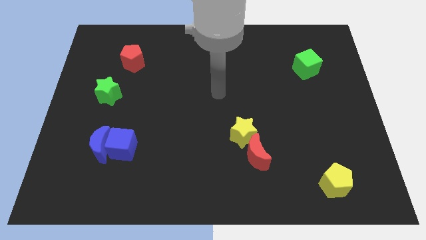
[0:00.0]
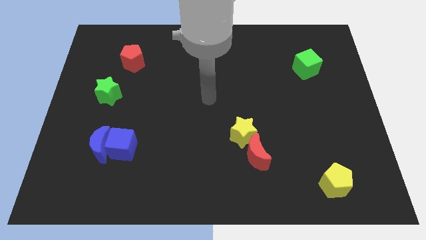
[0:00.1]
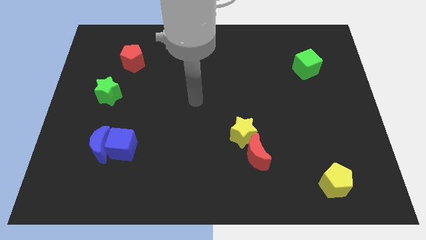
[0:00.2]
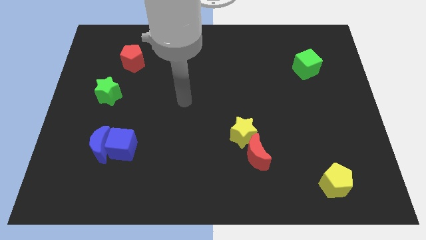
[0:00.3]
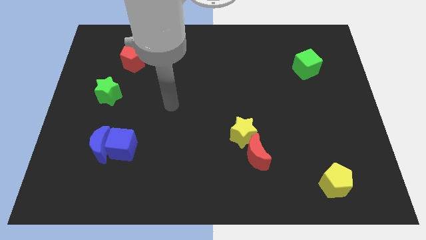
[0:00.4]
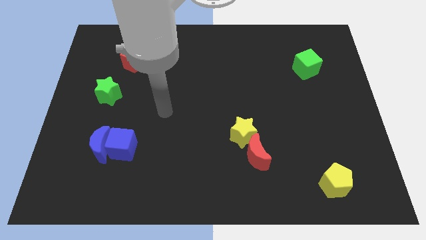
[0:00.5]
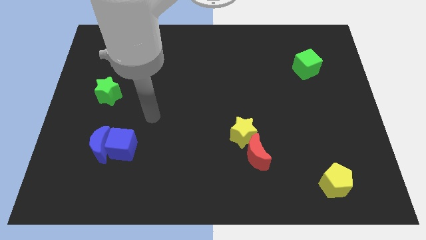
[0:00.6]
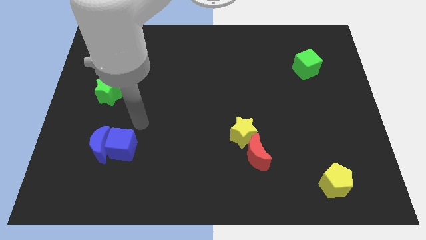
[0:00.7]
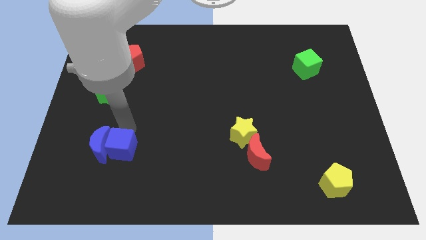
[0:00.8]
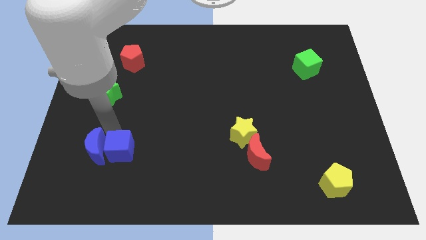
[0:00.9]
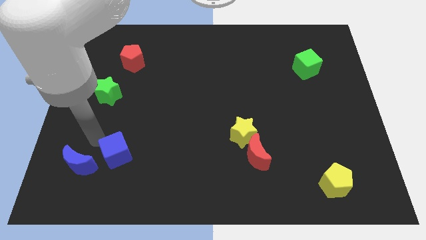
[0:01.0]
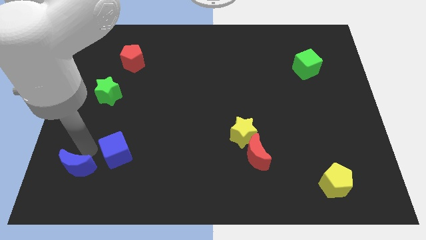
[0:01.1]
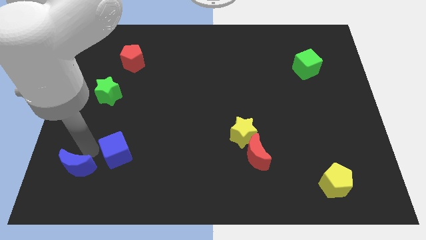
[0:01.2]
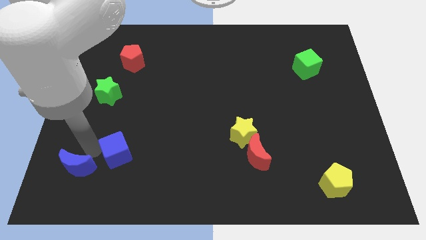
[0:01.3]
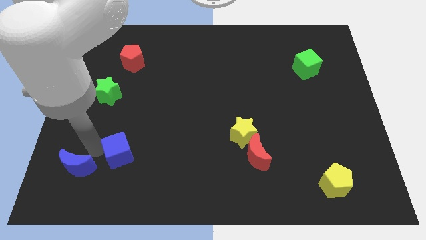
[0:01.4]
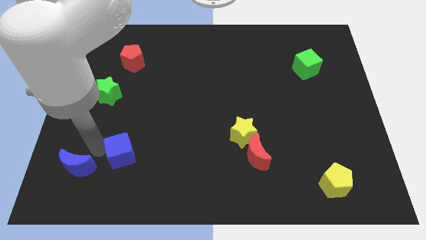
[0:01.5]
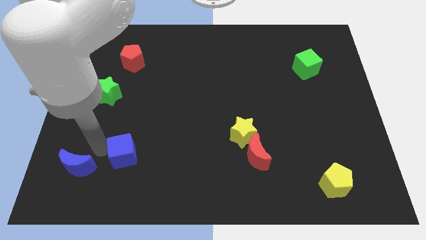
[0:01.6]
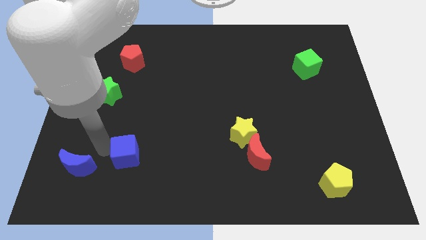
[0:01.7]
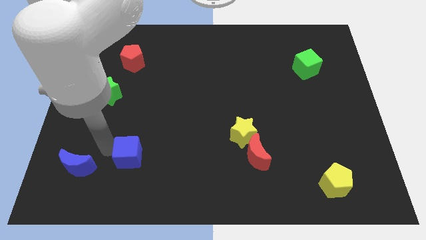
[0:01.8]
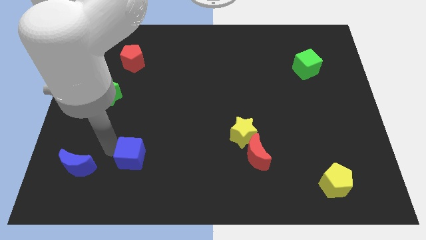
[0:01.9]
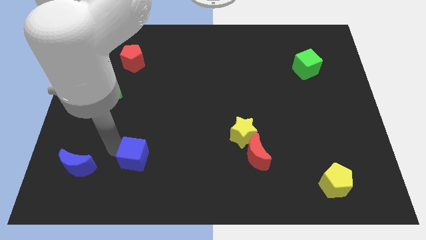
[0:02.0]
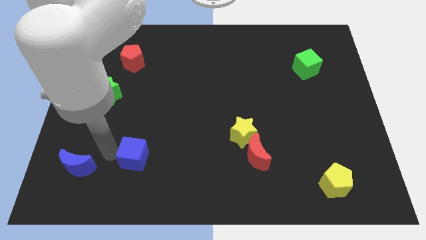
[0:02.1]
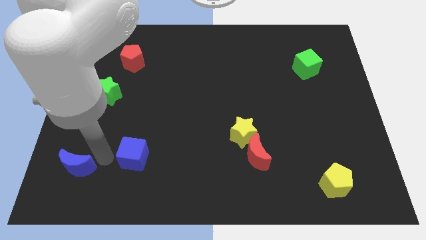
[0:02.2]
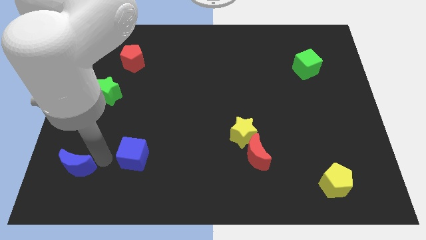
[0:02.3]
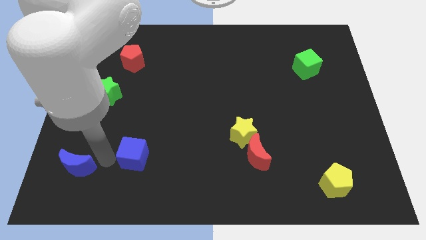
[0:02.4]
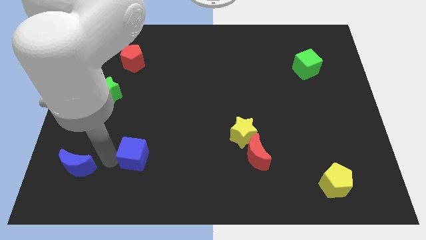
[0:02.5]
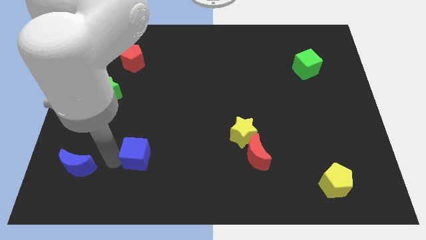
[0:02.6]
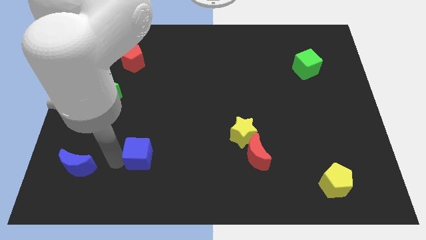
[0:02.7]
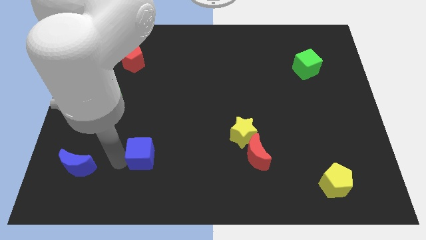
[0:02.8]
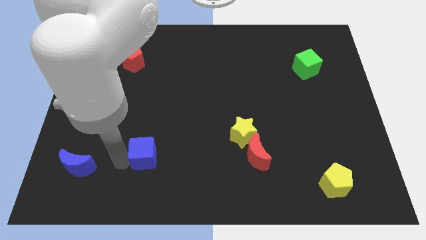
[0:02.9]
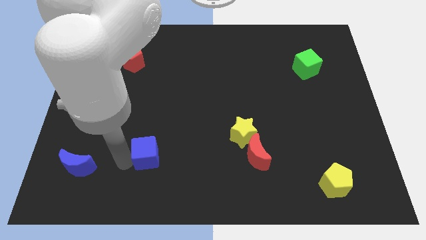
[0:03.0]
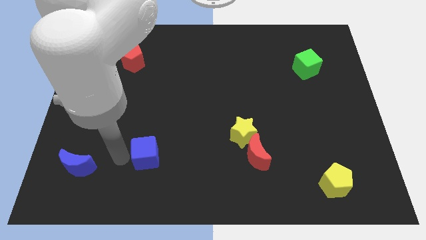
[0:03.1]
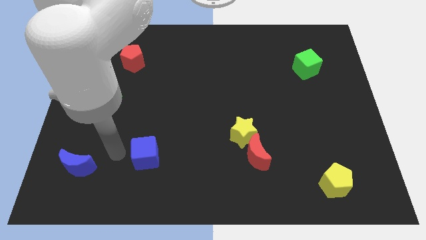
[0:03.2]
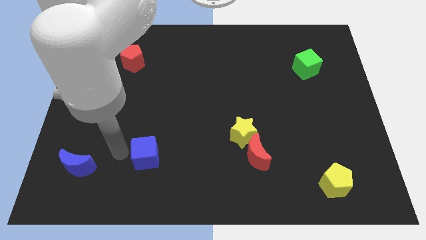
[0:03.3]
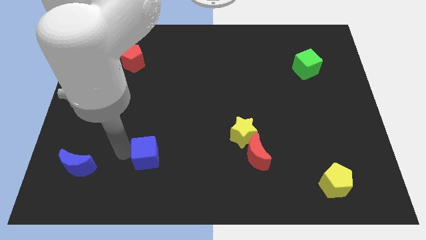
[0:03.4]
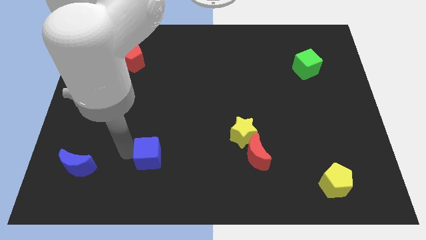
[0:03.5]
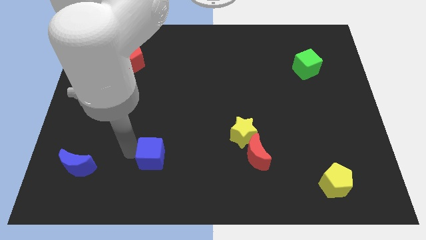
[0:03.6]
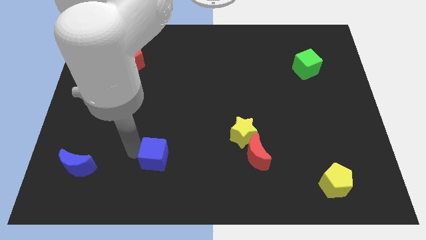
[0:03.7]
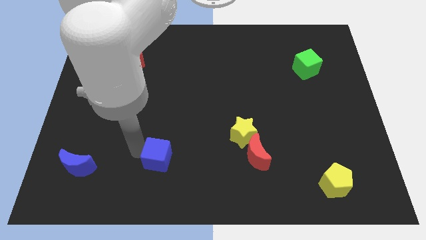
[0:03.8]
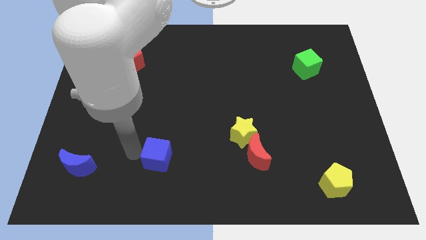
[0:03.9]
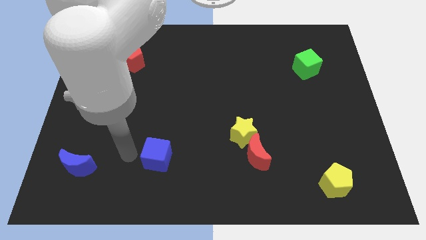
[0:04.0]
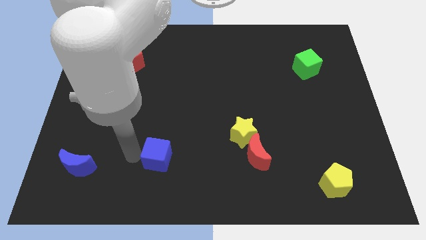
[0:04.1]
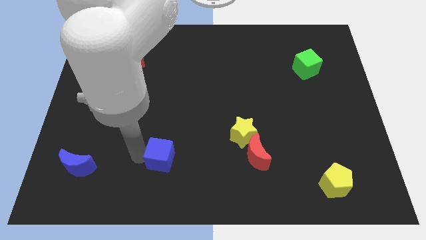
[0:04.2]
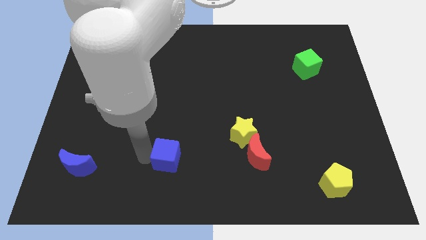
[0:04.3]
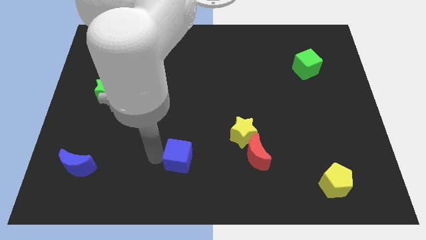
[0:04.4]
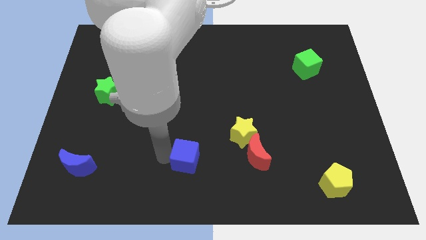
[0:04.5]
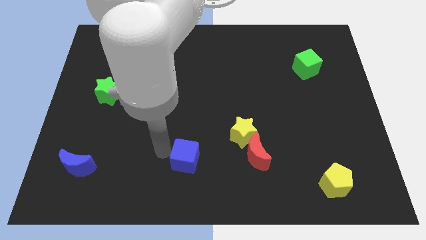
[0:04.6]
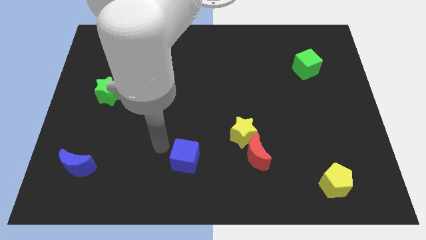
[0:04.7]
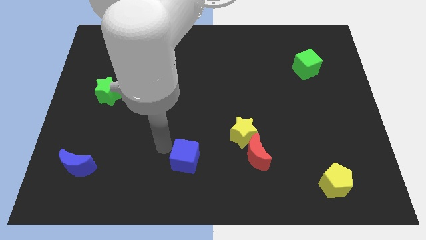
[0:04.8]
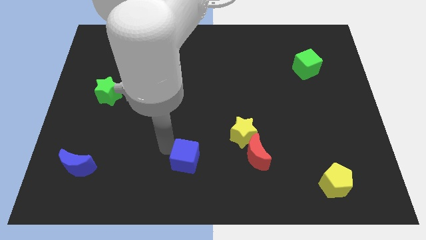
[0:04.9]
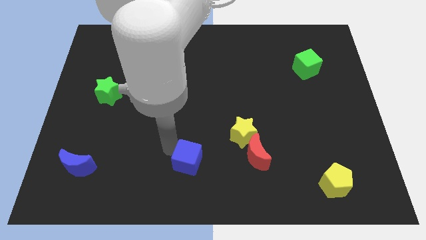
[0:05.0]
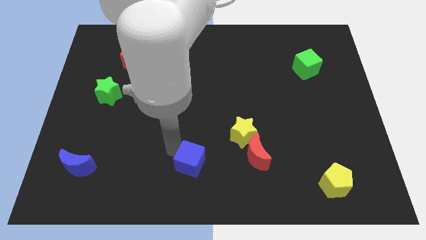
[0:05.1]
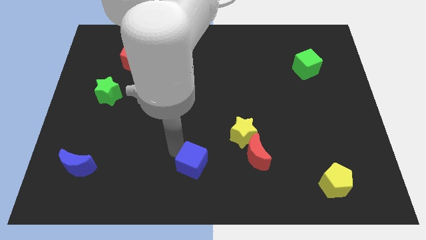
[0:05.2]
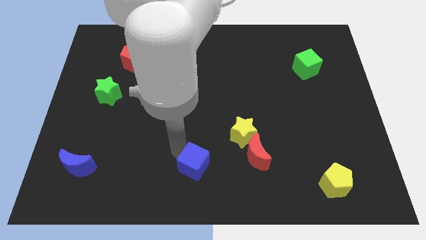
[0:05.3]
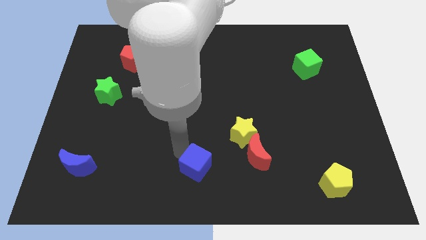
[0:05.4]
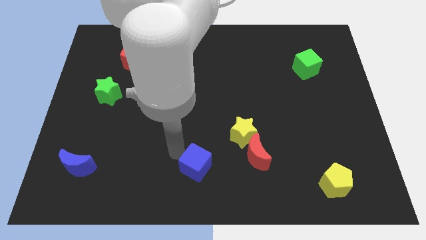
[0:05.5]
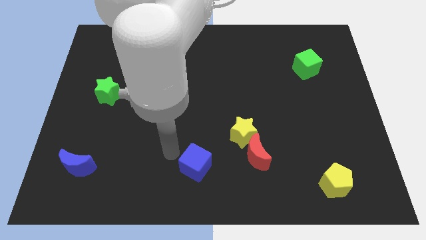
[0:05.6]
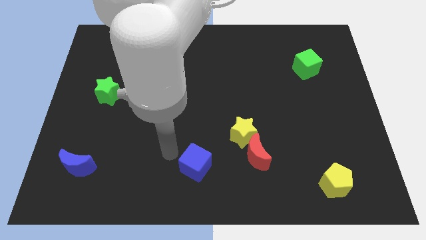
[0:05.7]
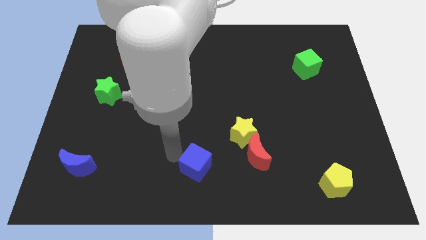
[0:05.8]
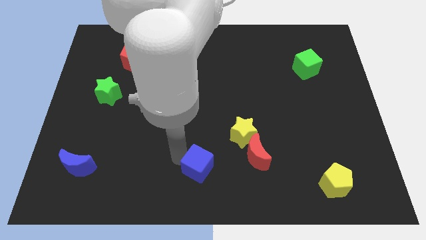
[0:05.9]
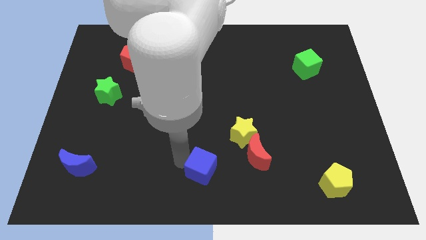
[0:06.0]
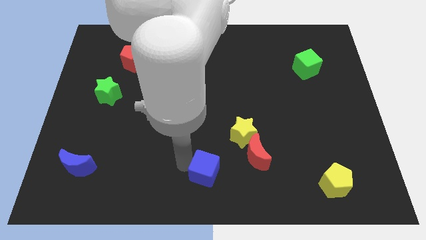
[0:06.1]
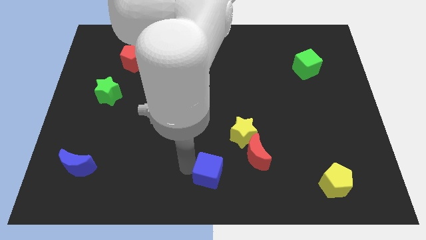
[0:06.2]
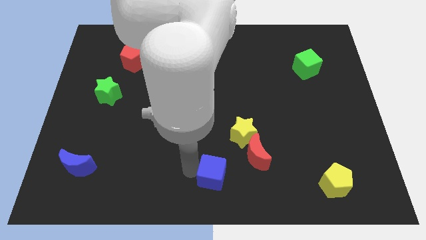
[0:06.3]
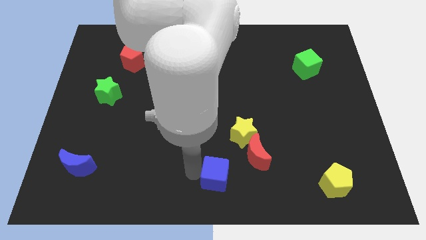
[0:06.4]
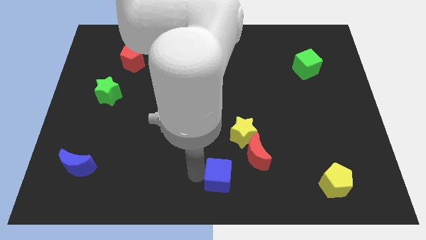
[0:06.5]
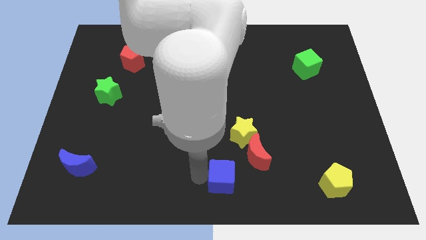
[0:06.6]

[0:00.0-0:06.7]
put the blue cube to the bottom of the yellow star

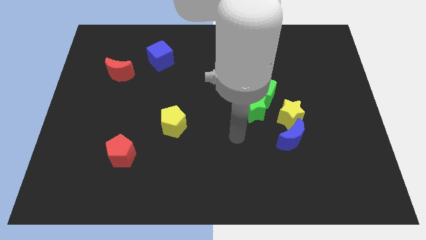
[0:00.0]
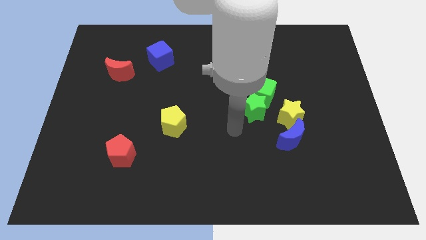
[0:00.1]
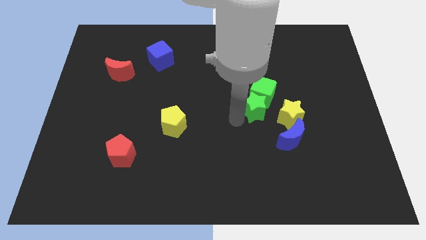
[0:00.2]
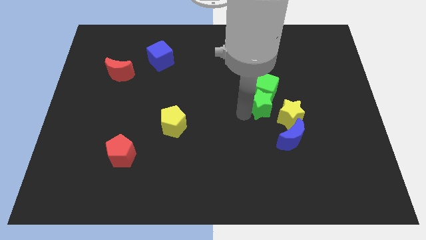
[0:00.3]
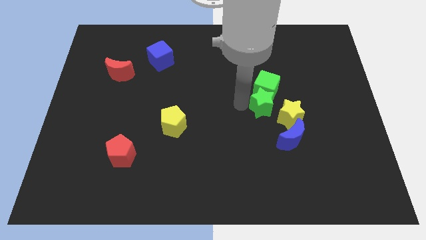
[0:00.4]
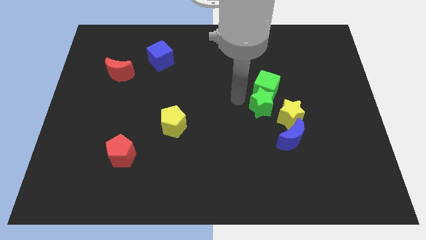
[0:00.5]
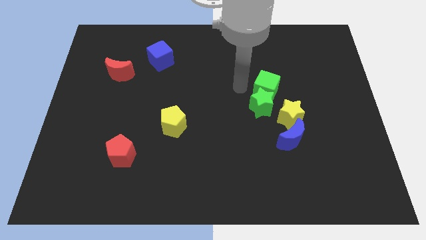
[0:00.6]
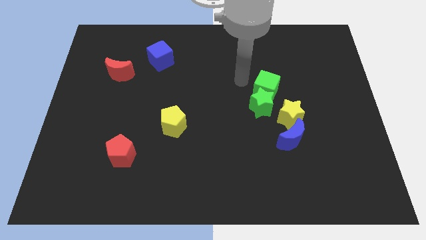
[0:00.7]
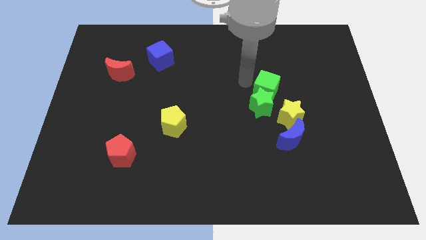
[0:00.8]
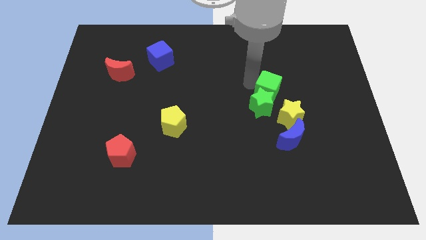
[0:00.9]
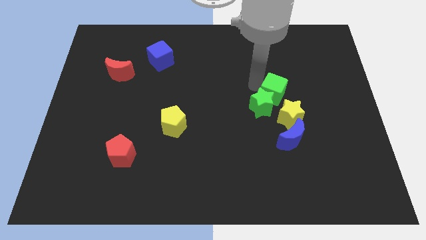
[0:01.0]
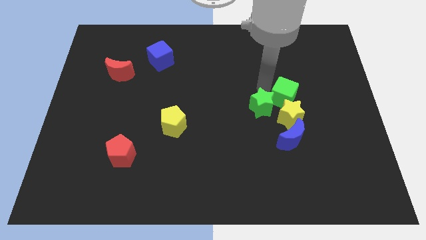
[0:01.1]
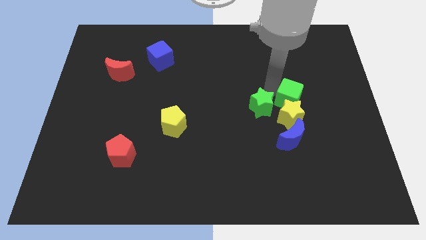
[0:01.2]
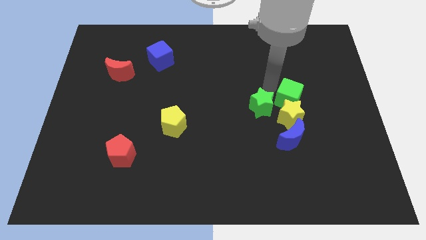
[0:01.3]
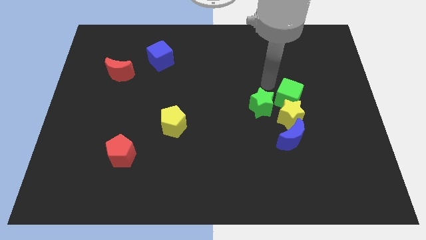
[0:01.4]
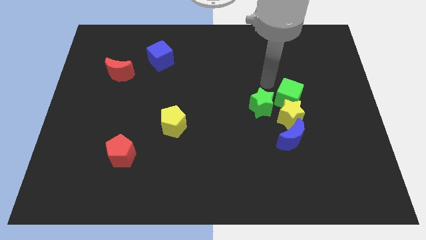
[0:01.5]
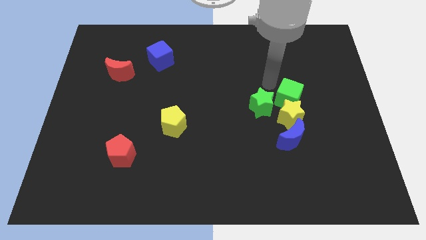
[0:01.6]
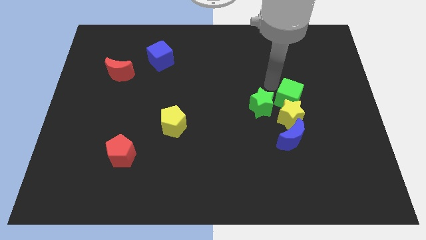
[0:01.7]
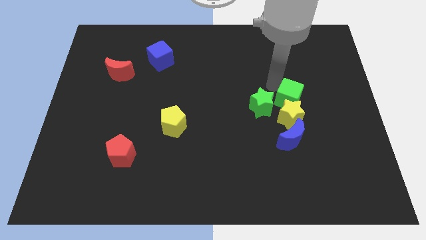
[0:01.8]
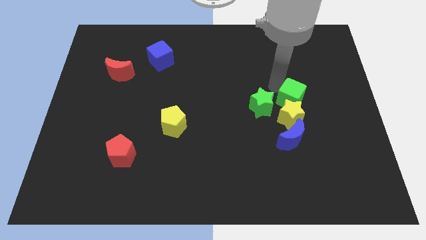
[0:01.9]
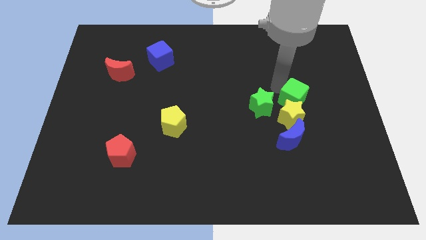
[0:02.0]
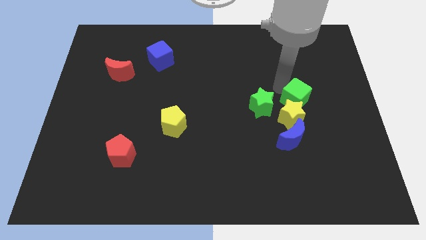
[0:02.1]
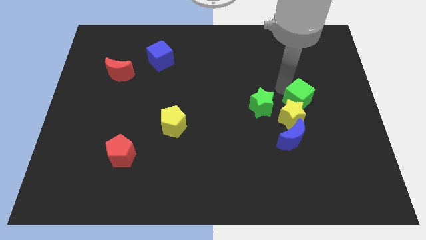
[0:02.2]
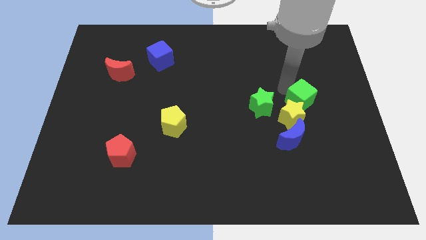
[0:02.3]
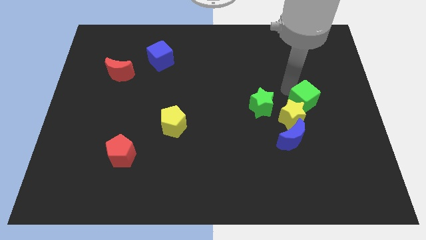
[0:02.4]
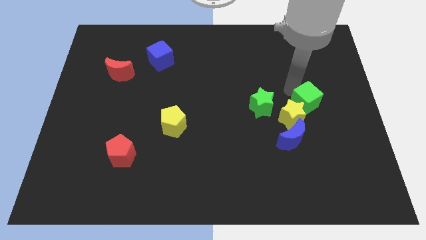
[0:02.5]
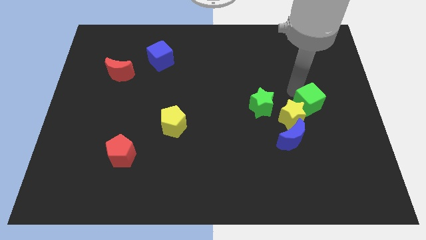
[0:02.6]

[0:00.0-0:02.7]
slide the green cube to the top right of the blue moon
